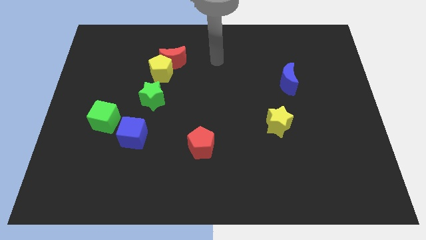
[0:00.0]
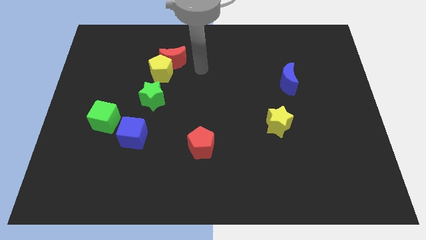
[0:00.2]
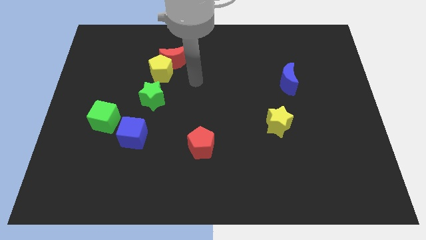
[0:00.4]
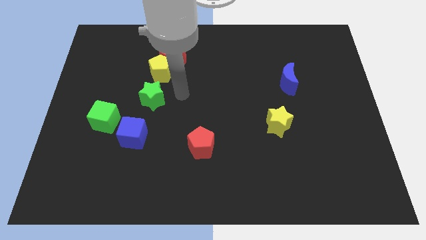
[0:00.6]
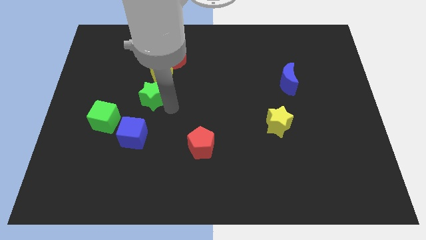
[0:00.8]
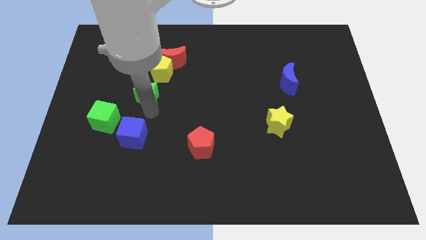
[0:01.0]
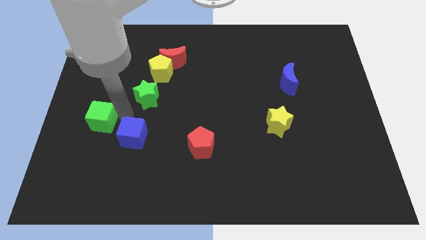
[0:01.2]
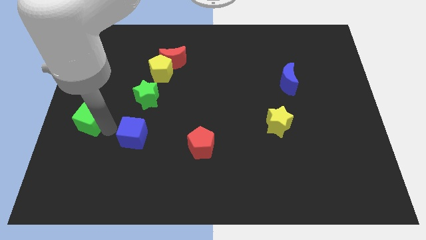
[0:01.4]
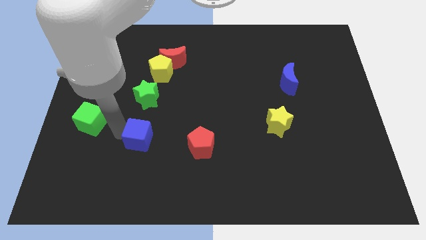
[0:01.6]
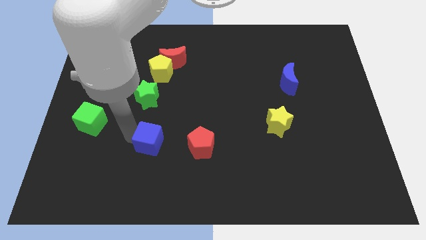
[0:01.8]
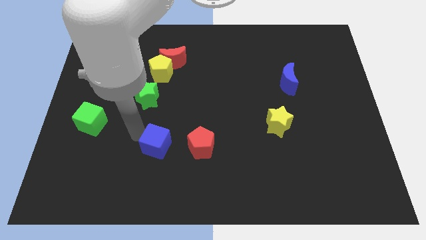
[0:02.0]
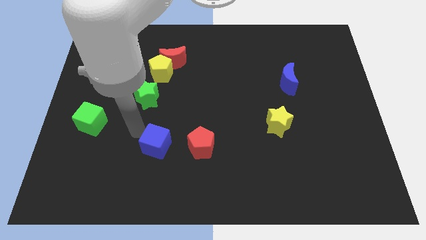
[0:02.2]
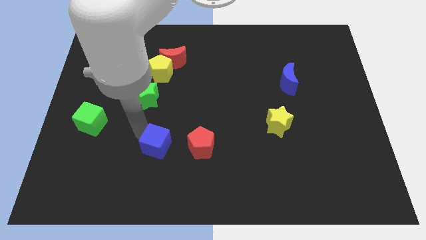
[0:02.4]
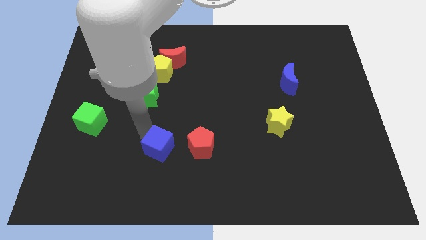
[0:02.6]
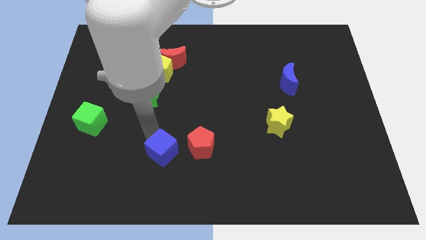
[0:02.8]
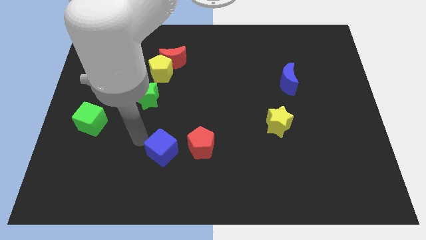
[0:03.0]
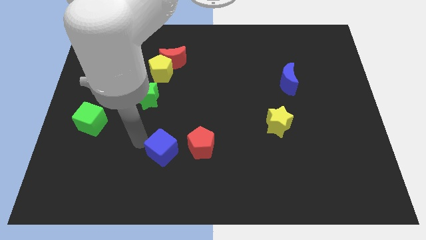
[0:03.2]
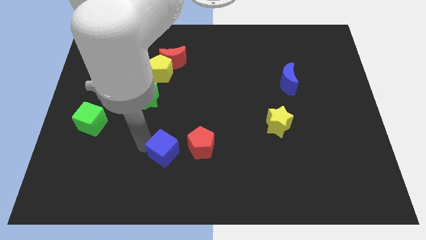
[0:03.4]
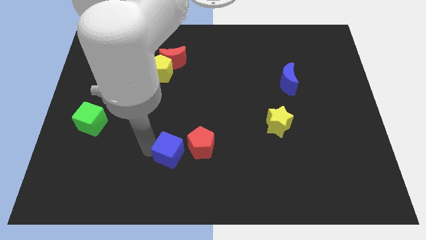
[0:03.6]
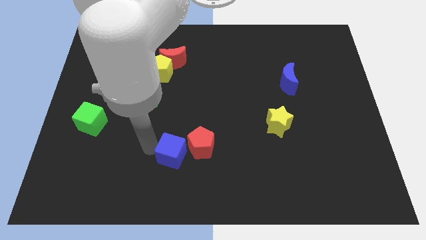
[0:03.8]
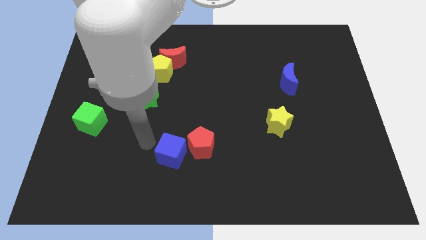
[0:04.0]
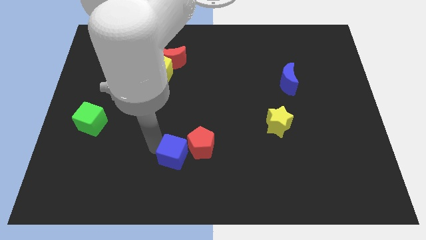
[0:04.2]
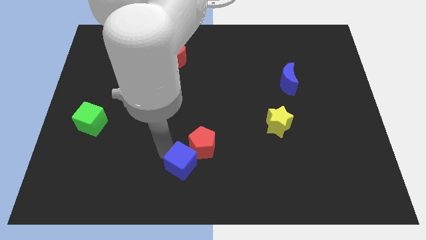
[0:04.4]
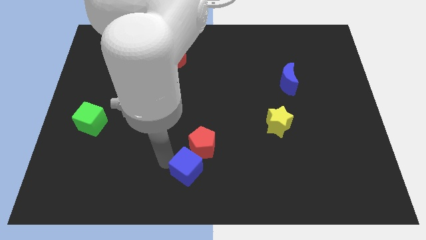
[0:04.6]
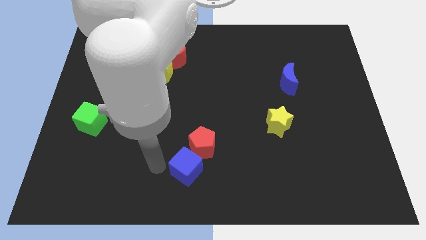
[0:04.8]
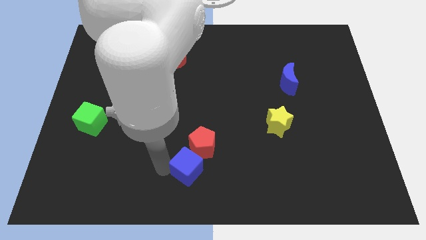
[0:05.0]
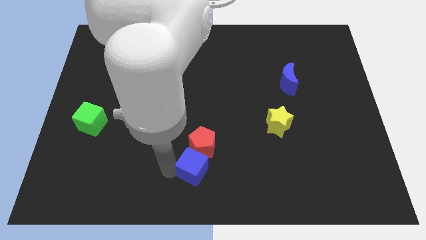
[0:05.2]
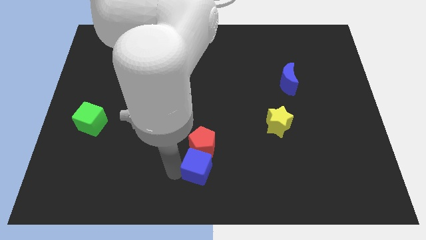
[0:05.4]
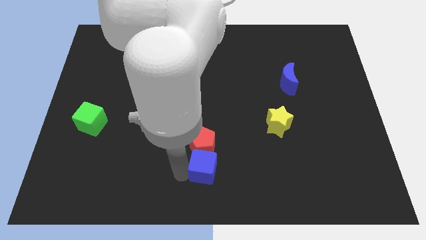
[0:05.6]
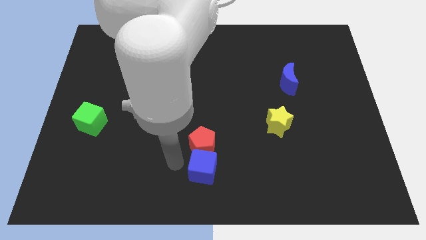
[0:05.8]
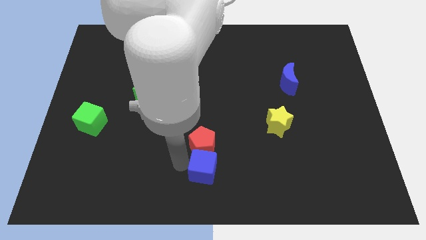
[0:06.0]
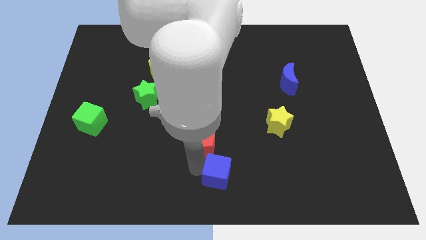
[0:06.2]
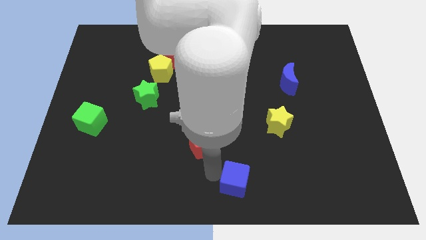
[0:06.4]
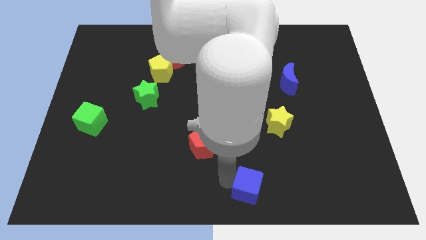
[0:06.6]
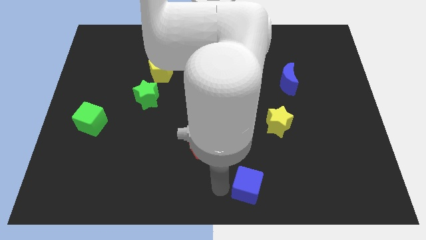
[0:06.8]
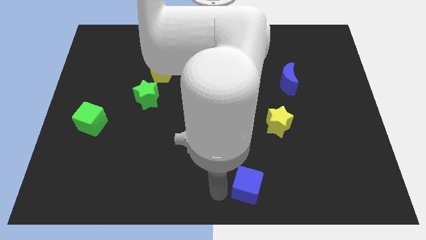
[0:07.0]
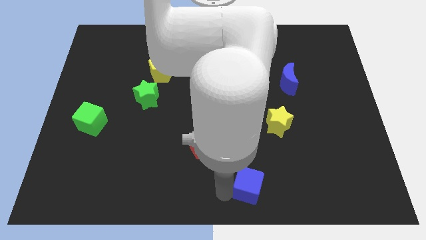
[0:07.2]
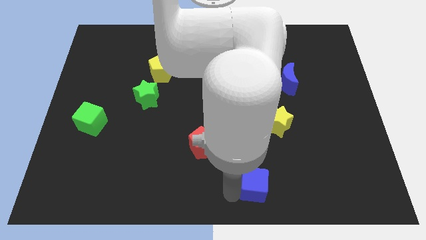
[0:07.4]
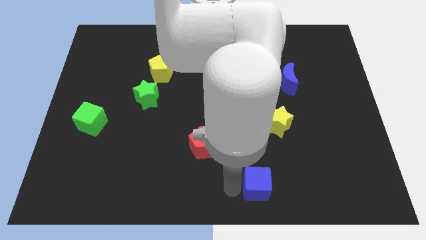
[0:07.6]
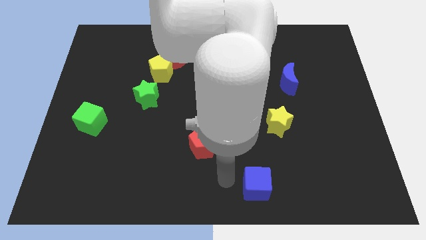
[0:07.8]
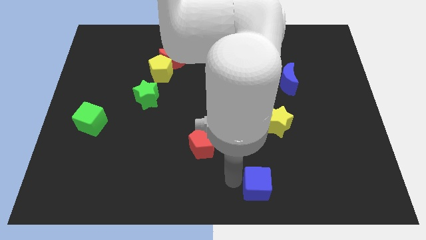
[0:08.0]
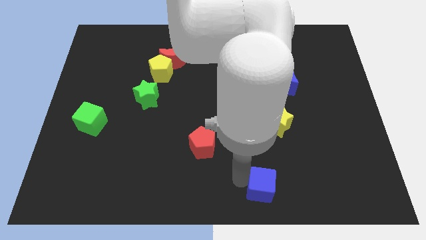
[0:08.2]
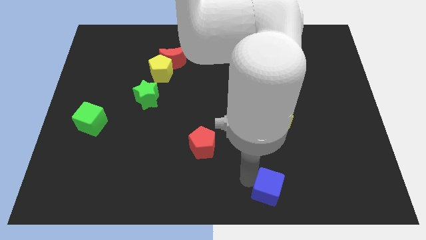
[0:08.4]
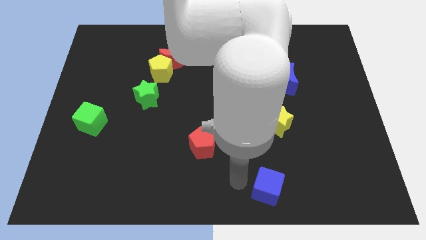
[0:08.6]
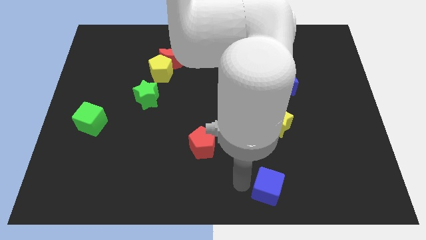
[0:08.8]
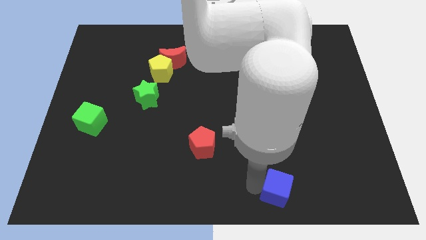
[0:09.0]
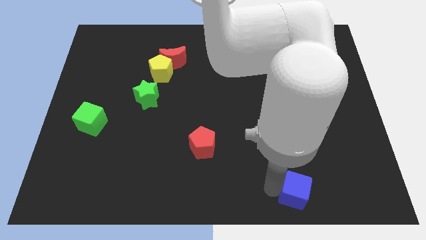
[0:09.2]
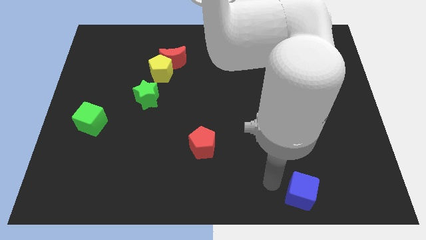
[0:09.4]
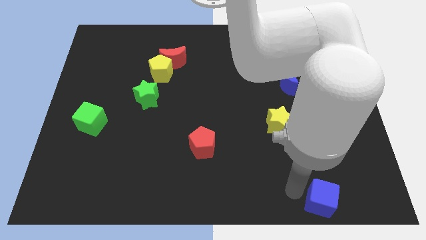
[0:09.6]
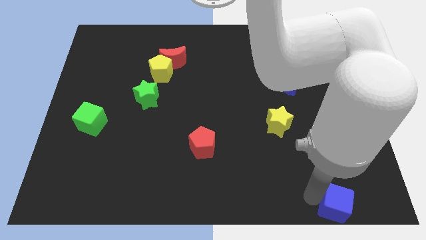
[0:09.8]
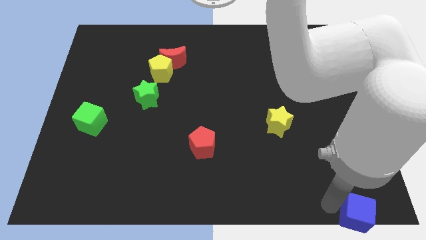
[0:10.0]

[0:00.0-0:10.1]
slide the blue cube to the bottom right corner

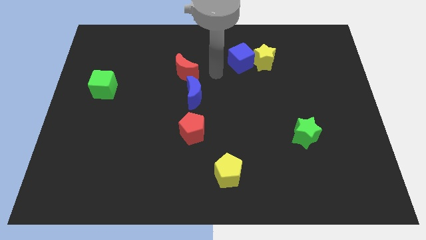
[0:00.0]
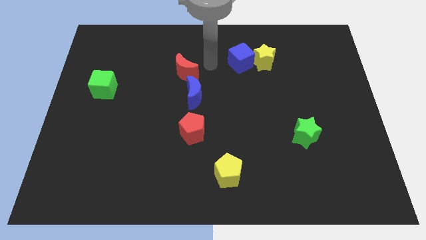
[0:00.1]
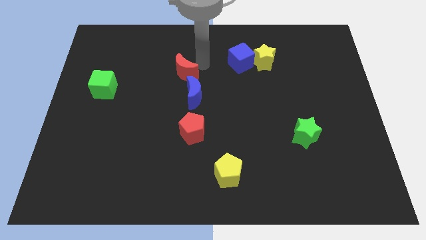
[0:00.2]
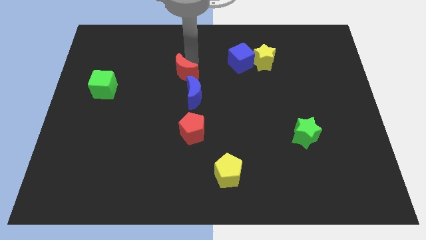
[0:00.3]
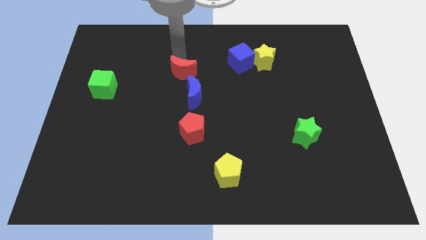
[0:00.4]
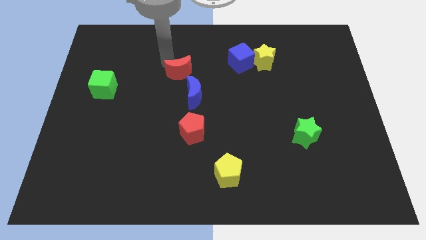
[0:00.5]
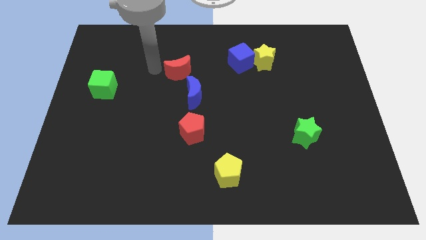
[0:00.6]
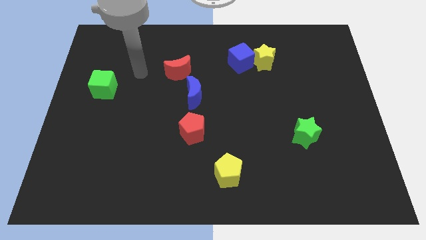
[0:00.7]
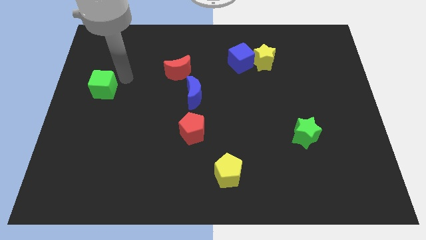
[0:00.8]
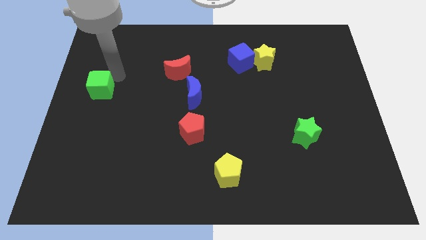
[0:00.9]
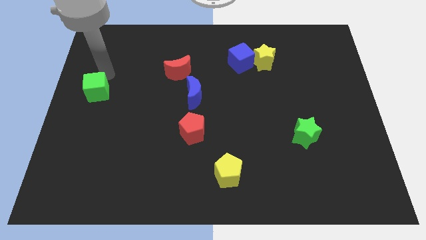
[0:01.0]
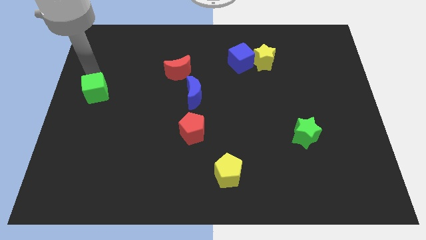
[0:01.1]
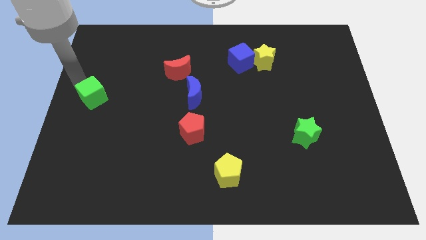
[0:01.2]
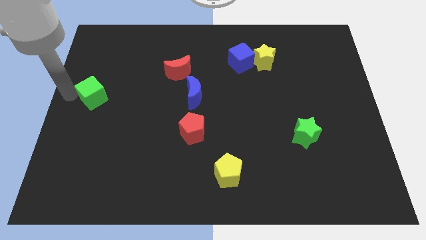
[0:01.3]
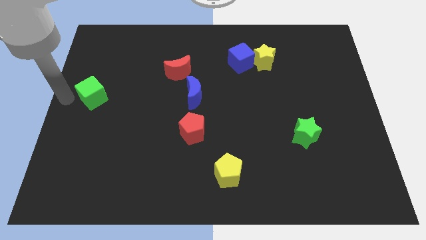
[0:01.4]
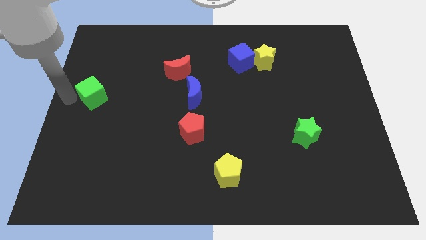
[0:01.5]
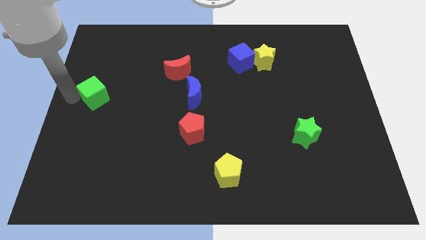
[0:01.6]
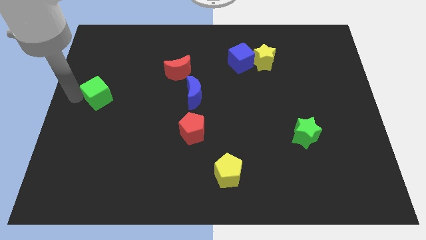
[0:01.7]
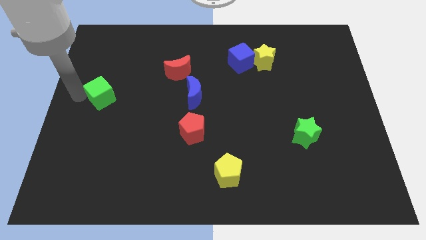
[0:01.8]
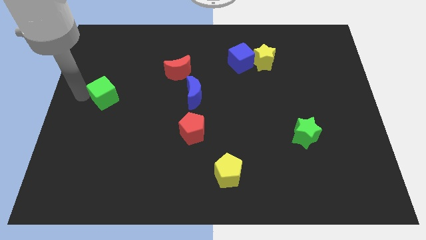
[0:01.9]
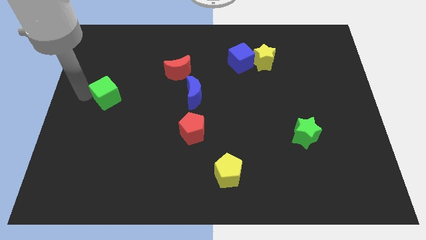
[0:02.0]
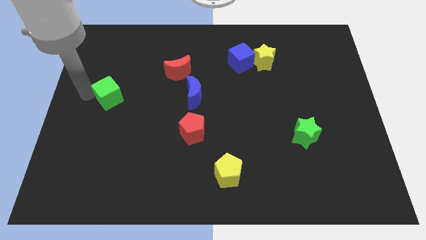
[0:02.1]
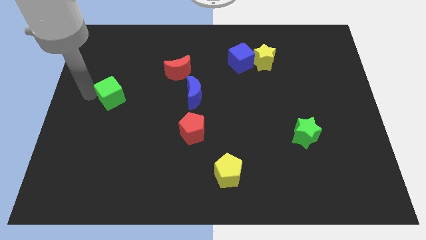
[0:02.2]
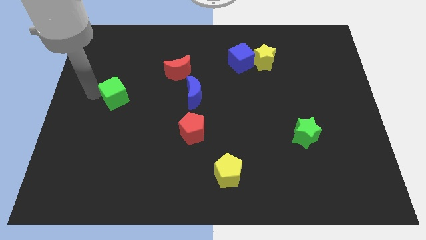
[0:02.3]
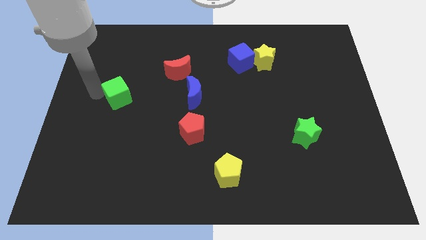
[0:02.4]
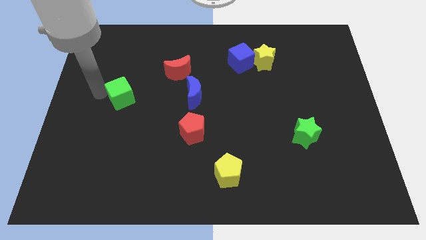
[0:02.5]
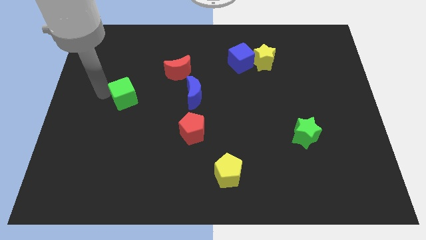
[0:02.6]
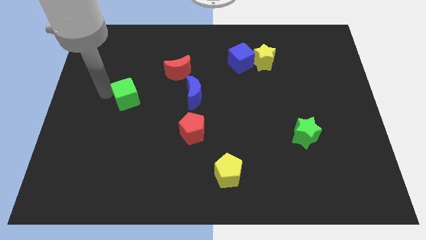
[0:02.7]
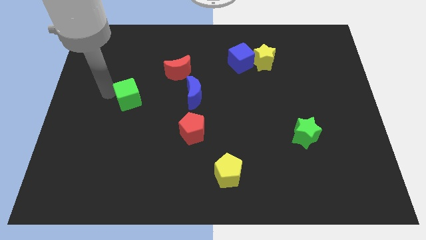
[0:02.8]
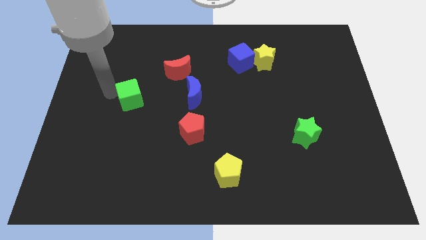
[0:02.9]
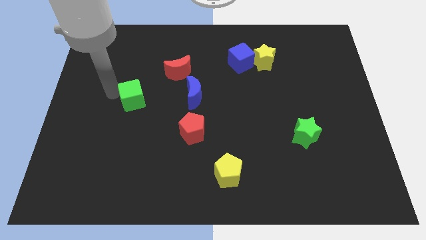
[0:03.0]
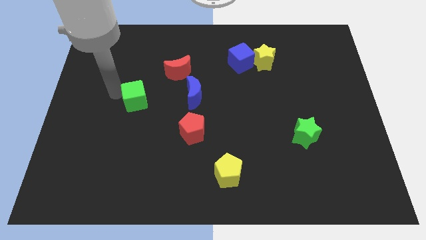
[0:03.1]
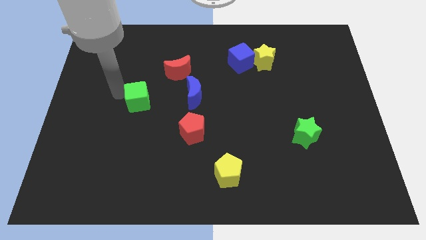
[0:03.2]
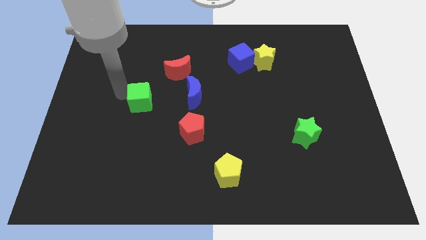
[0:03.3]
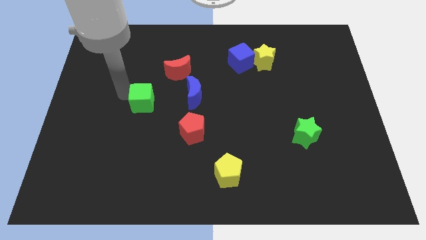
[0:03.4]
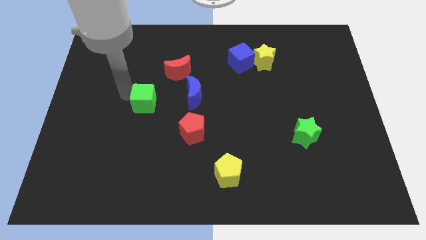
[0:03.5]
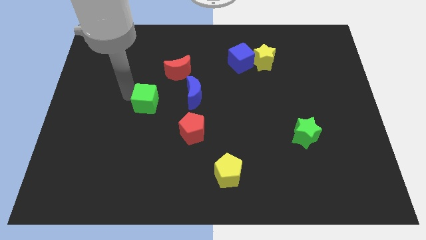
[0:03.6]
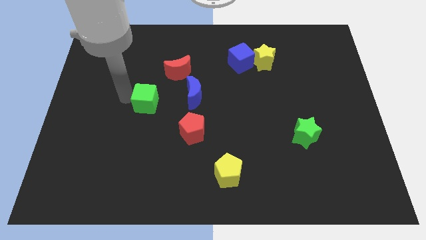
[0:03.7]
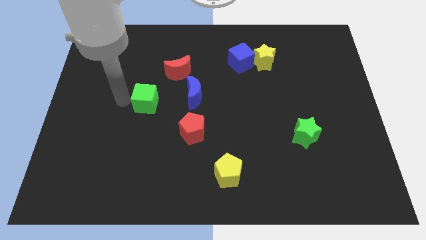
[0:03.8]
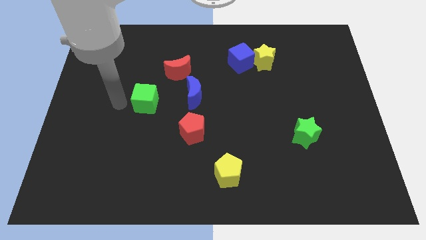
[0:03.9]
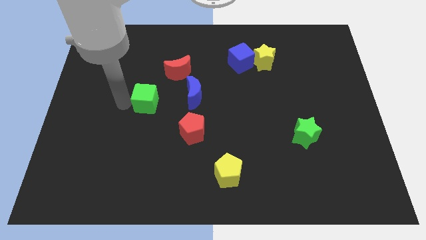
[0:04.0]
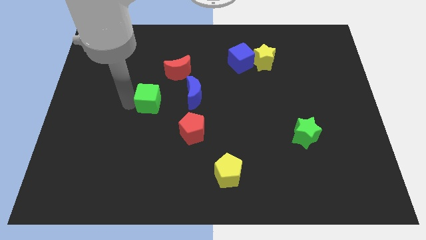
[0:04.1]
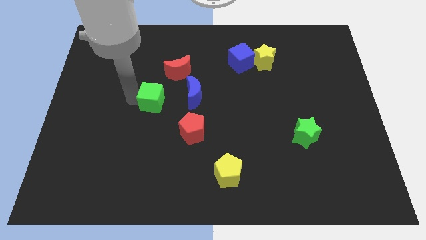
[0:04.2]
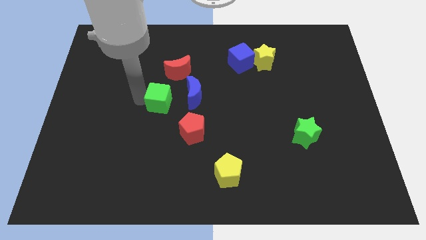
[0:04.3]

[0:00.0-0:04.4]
slide the green cube to the center
